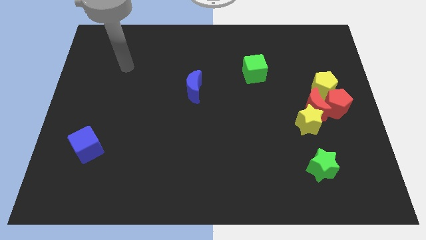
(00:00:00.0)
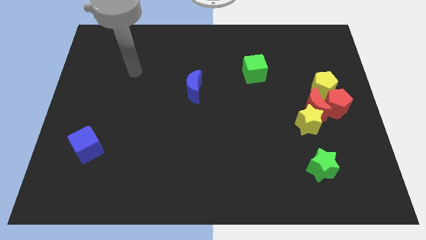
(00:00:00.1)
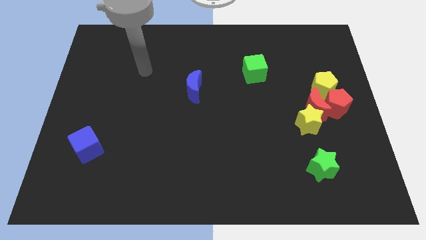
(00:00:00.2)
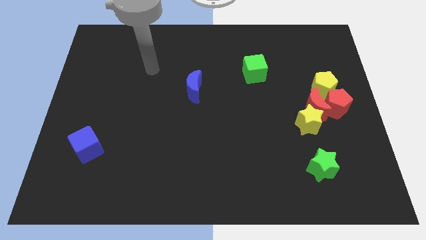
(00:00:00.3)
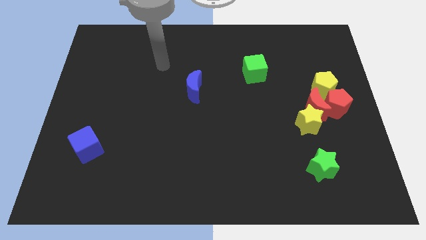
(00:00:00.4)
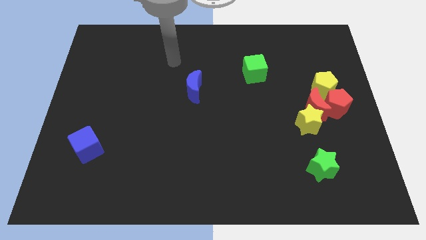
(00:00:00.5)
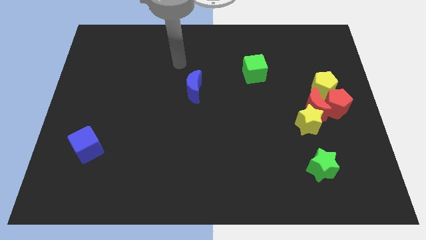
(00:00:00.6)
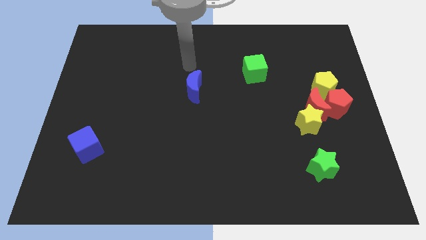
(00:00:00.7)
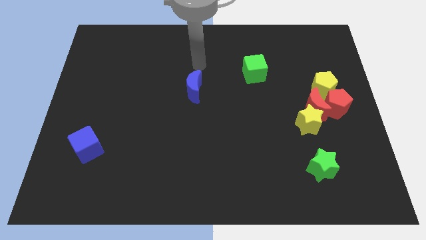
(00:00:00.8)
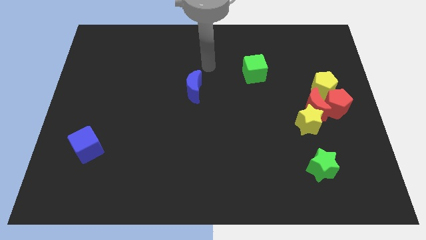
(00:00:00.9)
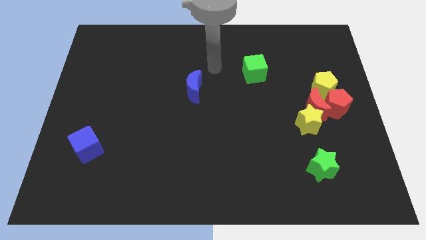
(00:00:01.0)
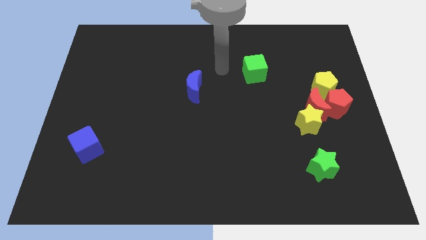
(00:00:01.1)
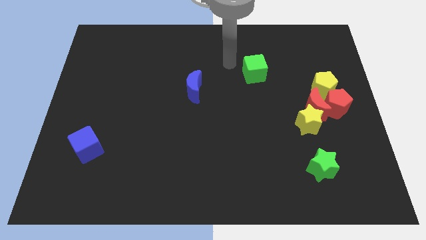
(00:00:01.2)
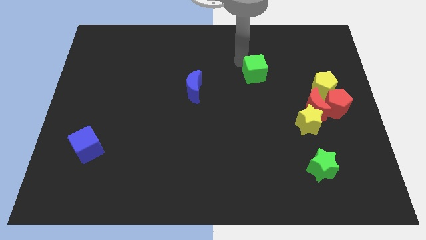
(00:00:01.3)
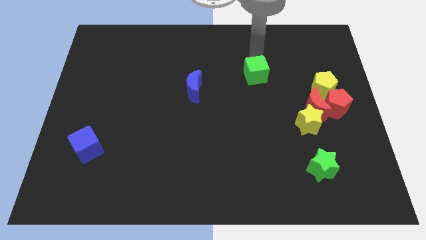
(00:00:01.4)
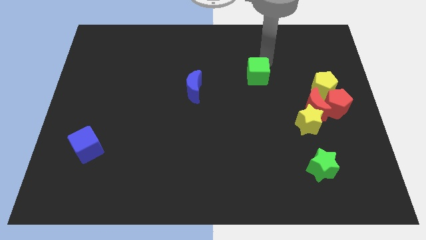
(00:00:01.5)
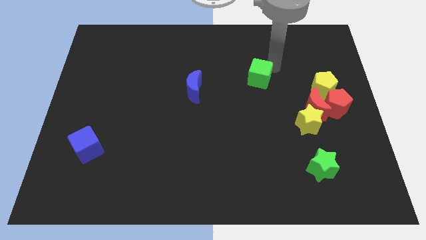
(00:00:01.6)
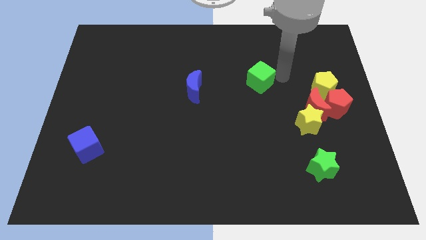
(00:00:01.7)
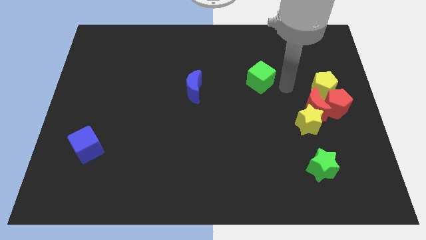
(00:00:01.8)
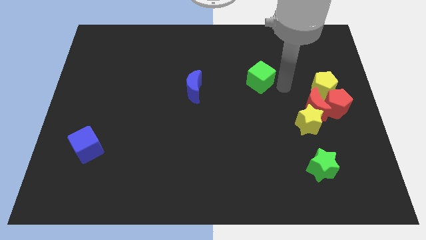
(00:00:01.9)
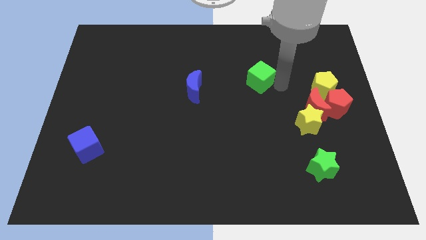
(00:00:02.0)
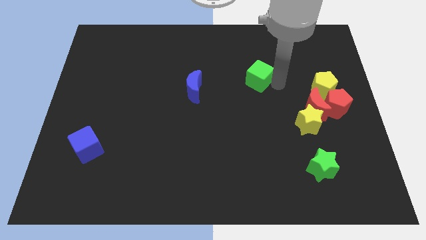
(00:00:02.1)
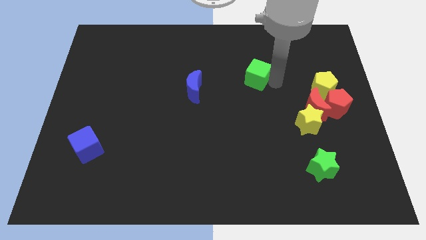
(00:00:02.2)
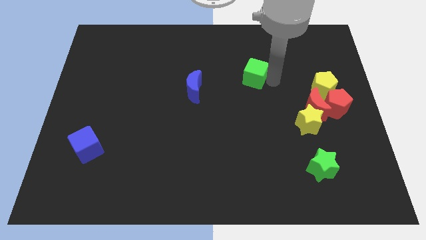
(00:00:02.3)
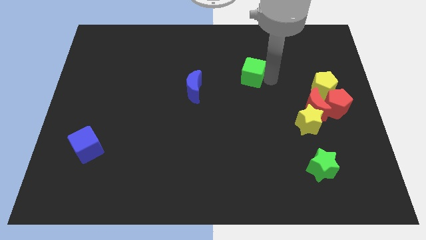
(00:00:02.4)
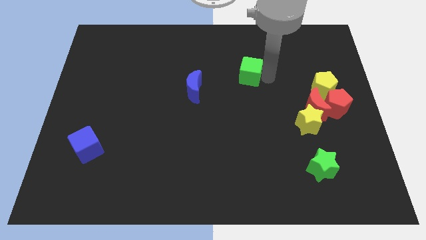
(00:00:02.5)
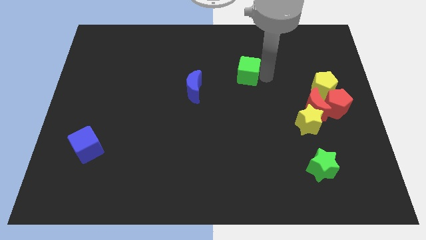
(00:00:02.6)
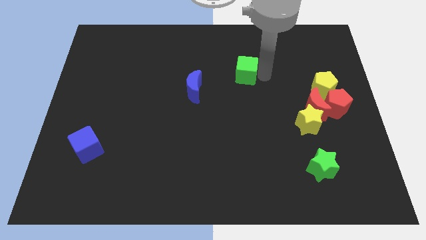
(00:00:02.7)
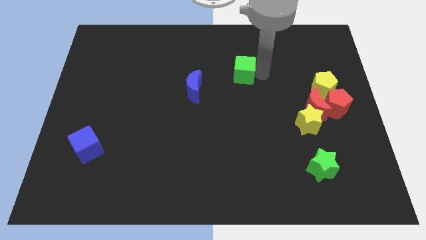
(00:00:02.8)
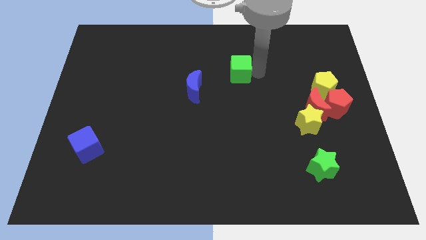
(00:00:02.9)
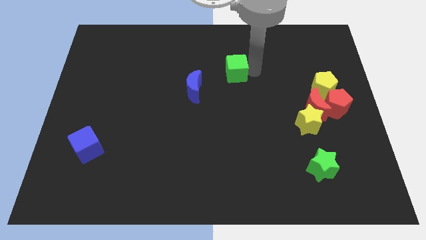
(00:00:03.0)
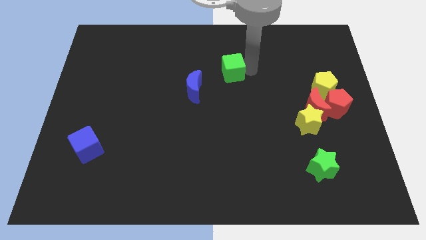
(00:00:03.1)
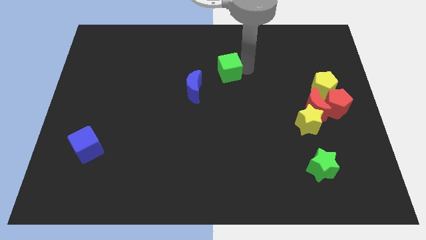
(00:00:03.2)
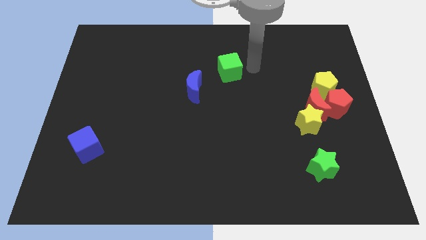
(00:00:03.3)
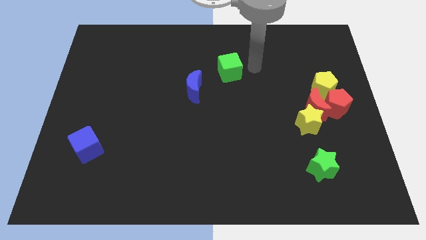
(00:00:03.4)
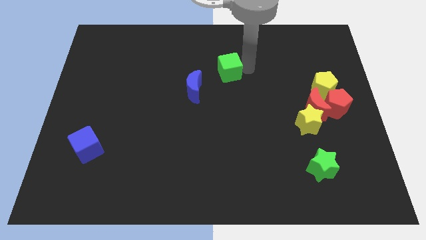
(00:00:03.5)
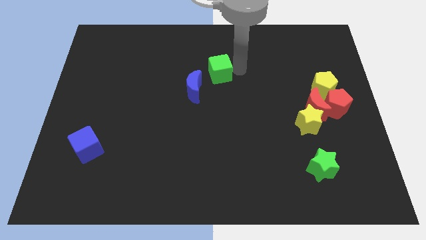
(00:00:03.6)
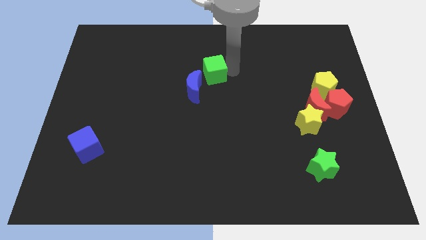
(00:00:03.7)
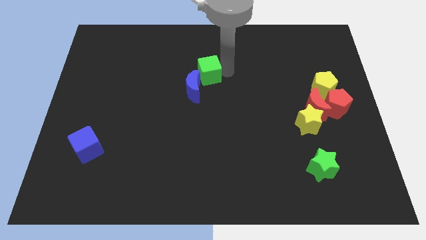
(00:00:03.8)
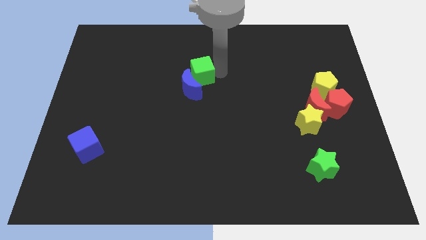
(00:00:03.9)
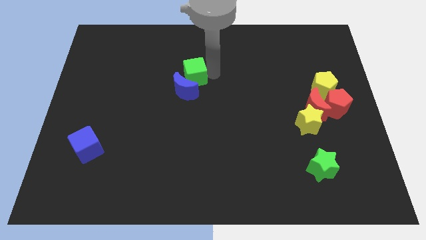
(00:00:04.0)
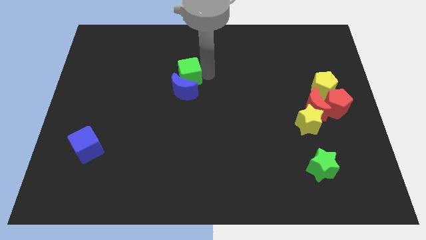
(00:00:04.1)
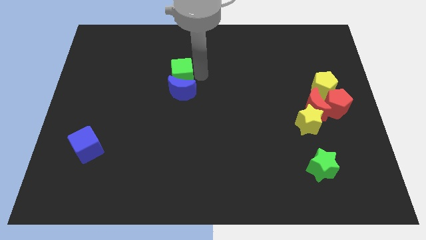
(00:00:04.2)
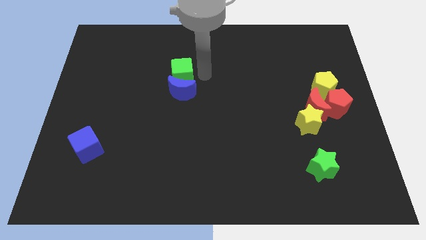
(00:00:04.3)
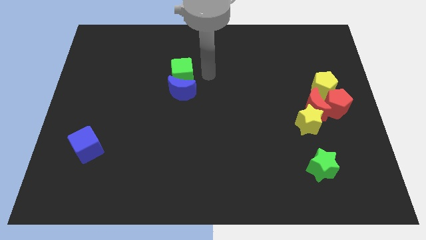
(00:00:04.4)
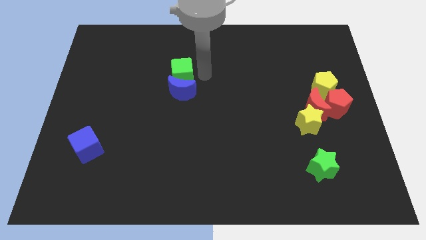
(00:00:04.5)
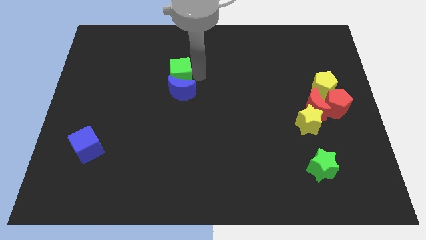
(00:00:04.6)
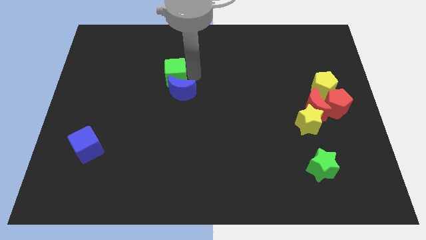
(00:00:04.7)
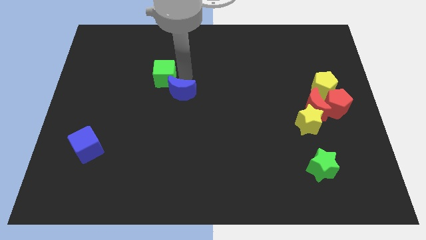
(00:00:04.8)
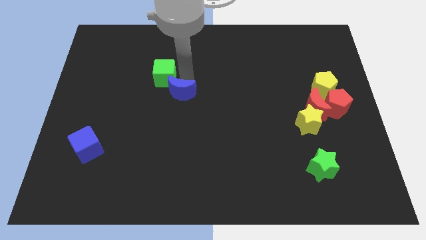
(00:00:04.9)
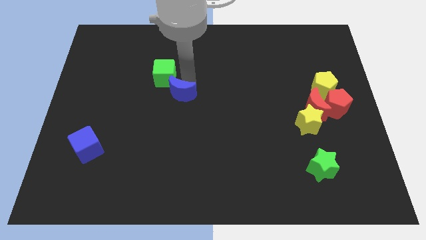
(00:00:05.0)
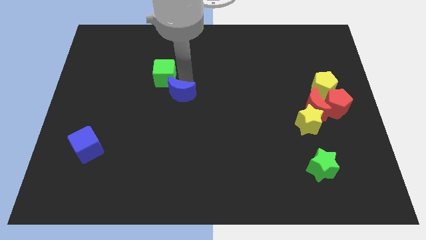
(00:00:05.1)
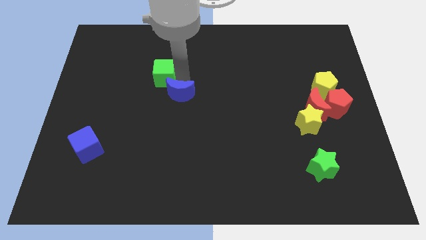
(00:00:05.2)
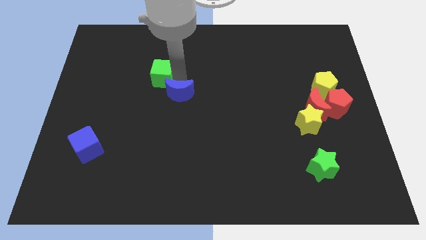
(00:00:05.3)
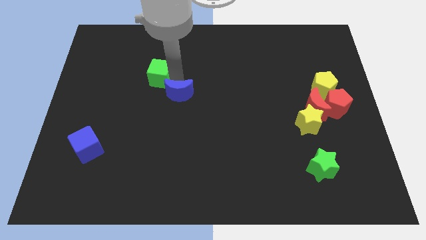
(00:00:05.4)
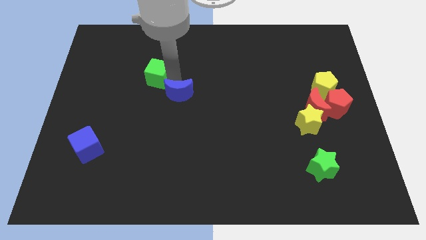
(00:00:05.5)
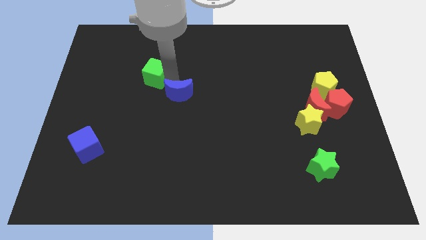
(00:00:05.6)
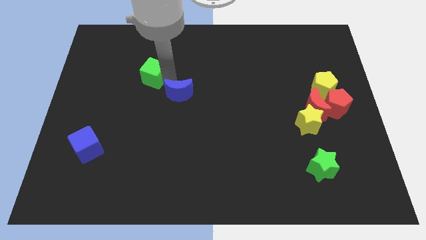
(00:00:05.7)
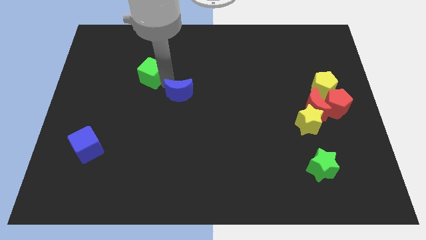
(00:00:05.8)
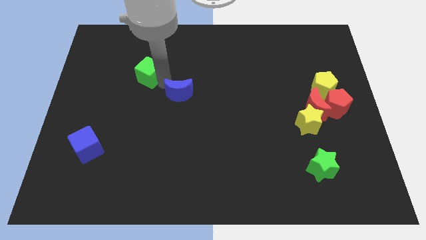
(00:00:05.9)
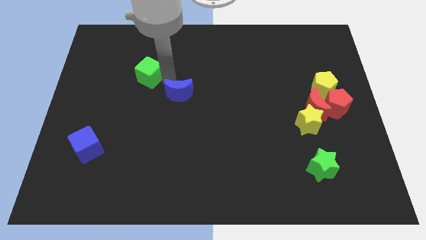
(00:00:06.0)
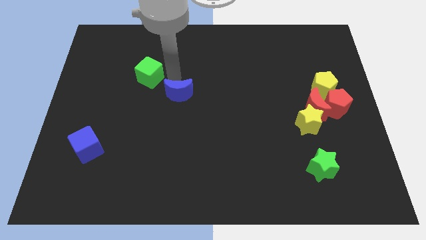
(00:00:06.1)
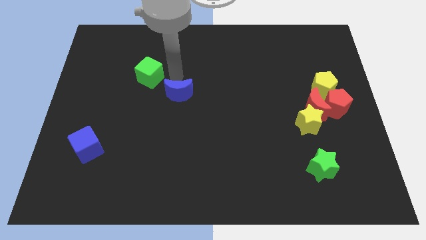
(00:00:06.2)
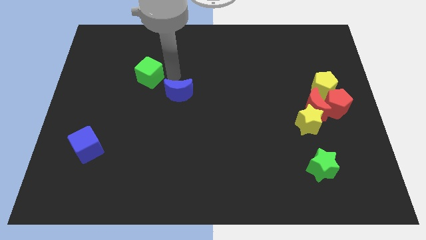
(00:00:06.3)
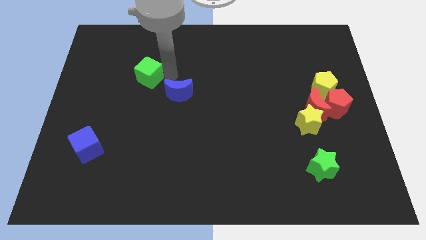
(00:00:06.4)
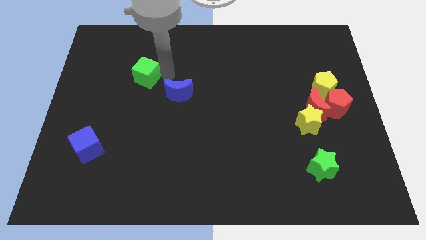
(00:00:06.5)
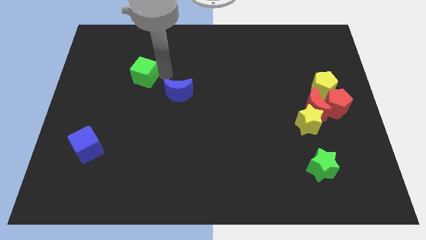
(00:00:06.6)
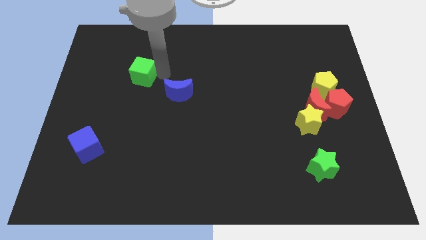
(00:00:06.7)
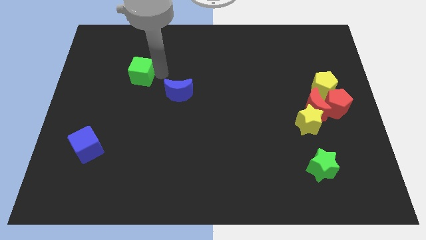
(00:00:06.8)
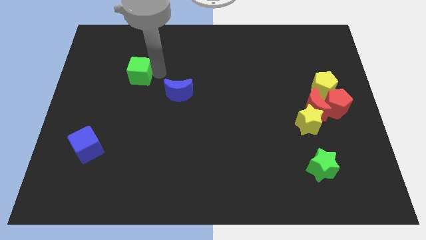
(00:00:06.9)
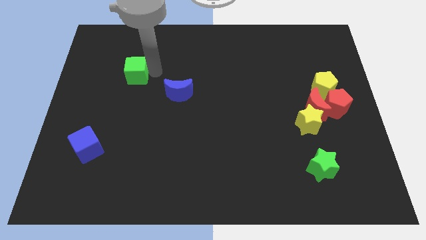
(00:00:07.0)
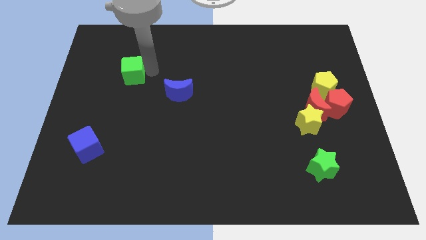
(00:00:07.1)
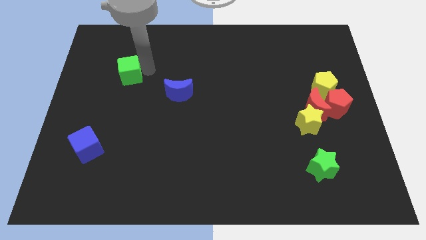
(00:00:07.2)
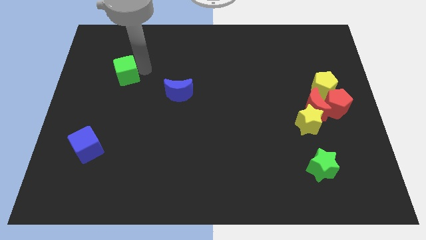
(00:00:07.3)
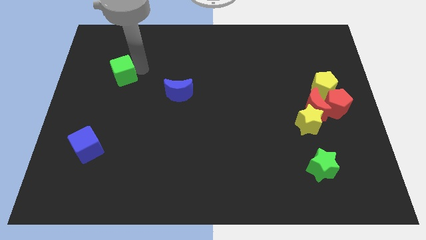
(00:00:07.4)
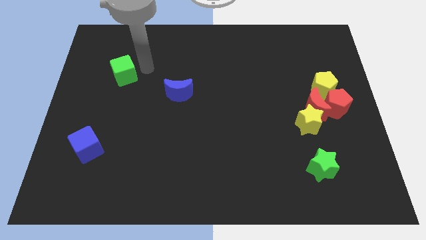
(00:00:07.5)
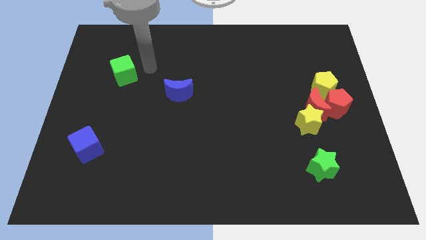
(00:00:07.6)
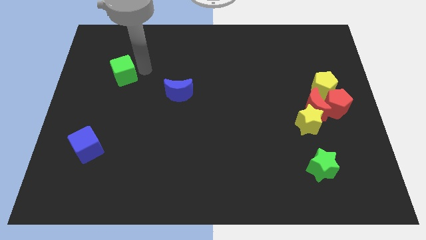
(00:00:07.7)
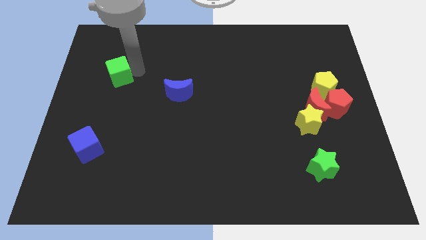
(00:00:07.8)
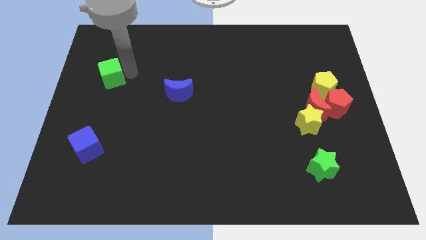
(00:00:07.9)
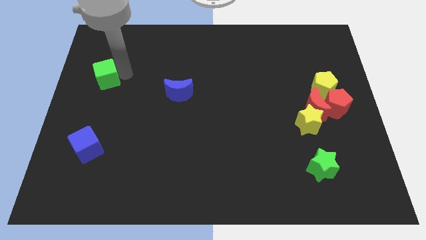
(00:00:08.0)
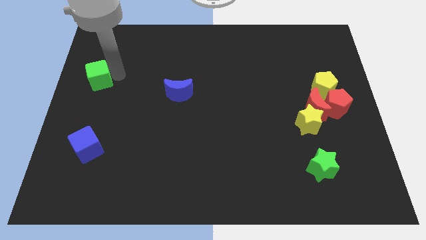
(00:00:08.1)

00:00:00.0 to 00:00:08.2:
push the green cube to the center left
